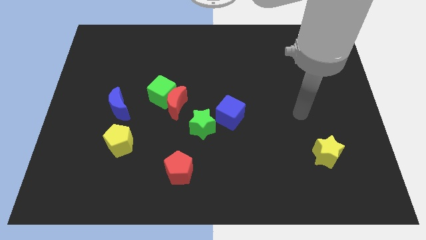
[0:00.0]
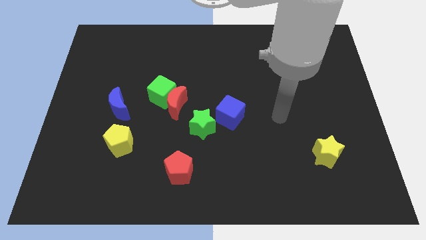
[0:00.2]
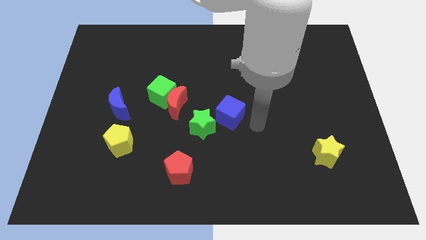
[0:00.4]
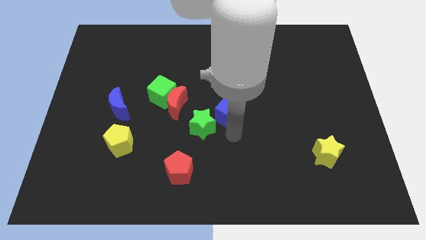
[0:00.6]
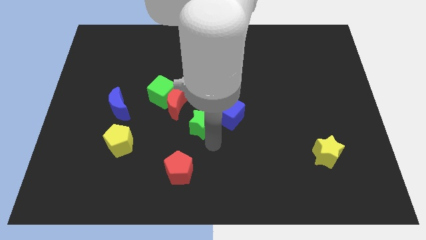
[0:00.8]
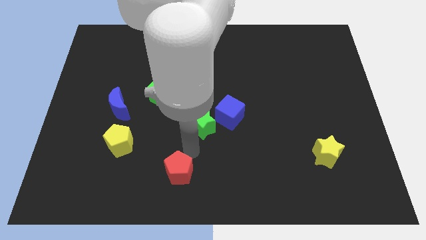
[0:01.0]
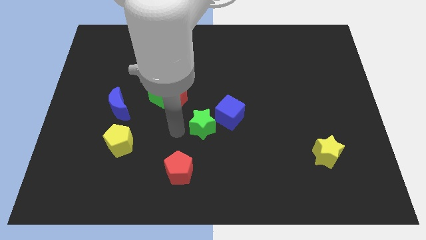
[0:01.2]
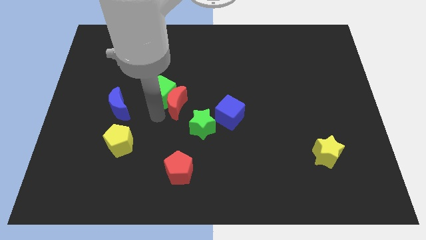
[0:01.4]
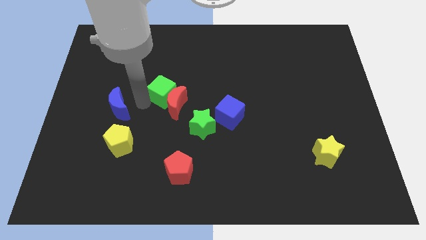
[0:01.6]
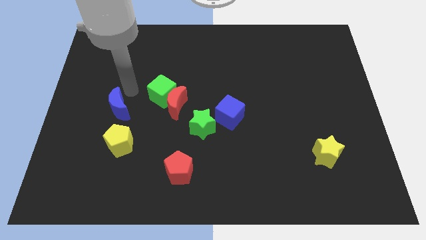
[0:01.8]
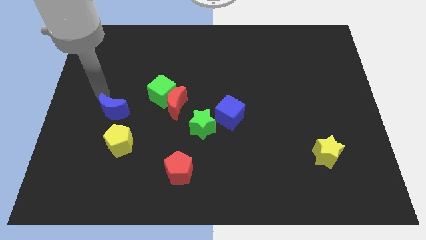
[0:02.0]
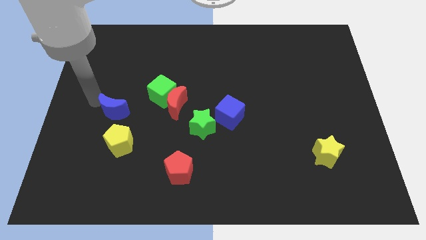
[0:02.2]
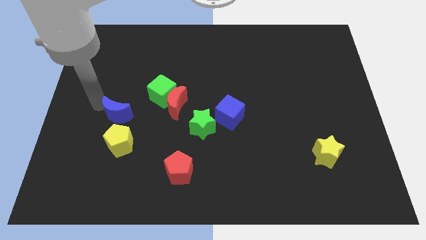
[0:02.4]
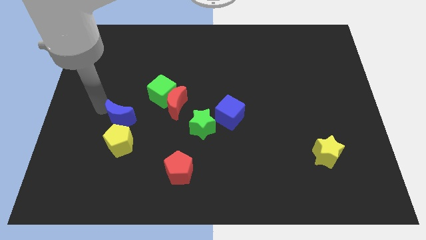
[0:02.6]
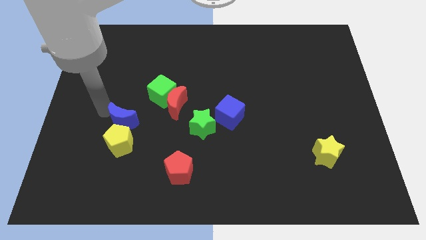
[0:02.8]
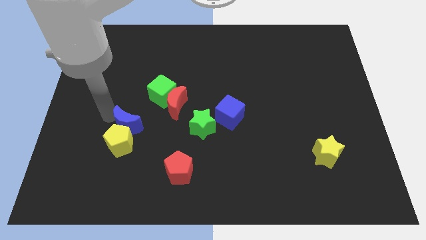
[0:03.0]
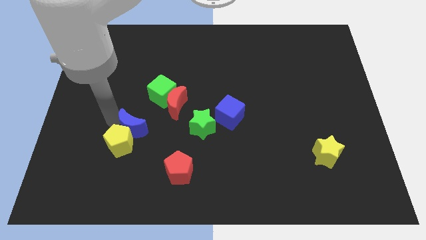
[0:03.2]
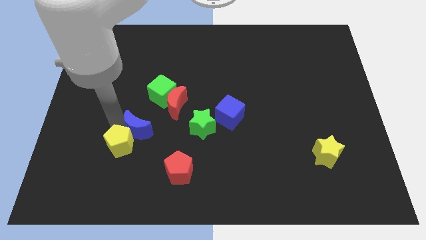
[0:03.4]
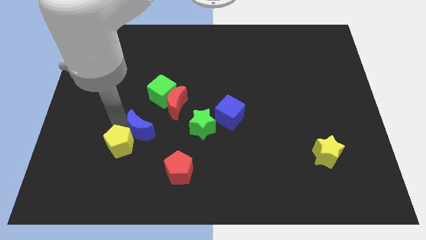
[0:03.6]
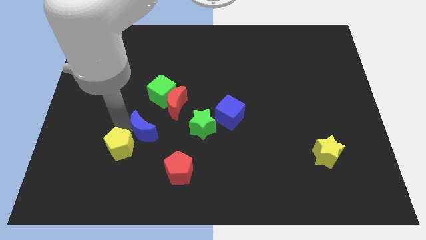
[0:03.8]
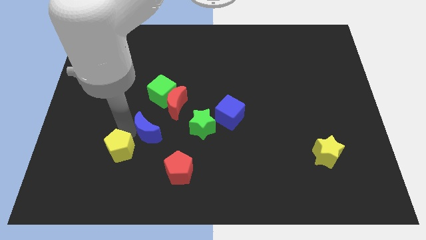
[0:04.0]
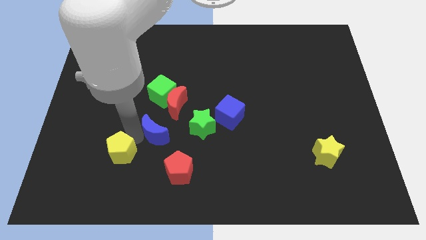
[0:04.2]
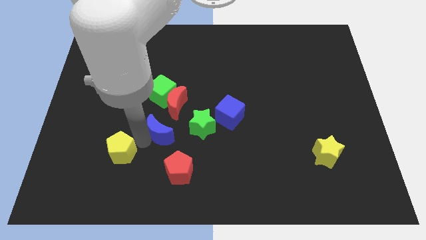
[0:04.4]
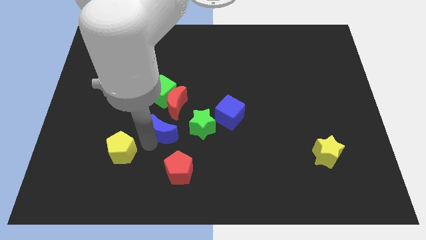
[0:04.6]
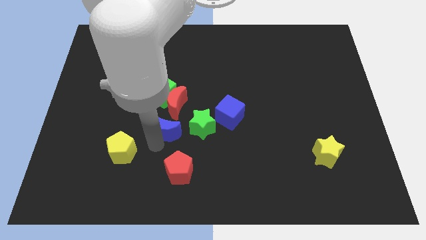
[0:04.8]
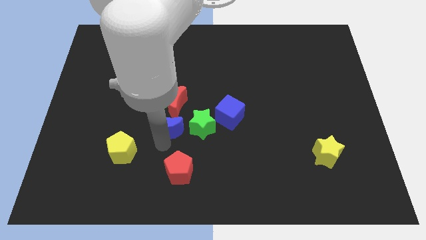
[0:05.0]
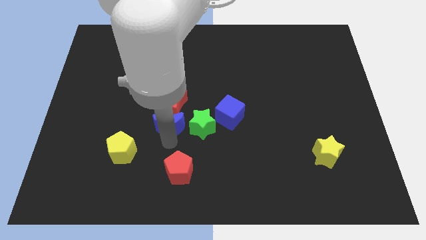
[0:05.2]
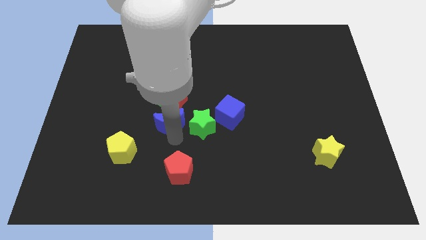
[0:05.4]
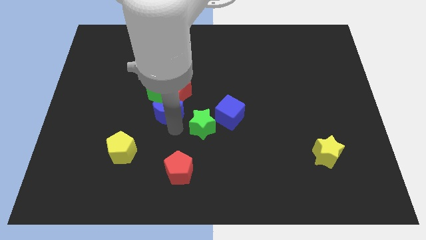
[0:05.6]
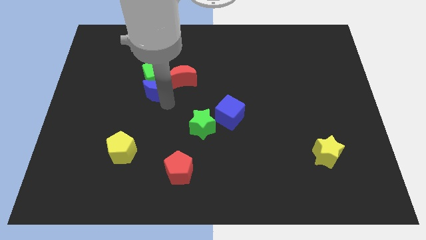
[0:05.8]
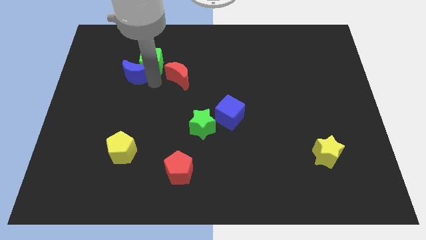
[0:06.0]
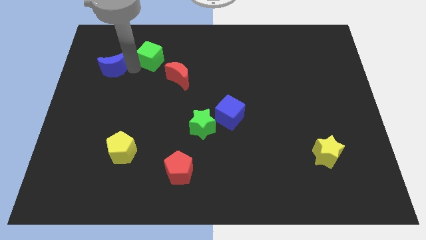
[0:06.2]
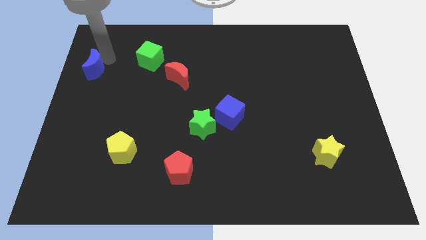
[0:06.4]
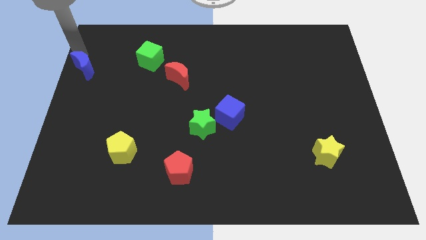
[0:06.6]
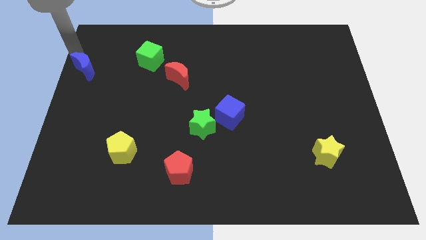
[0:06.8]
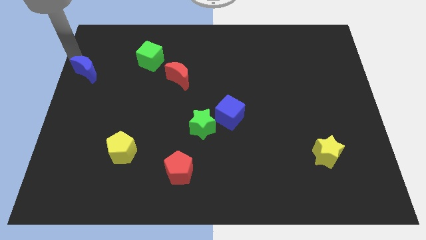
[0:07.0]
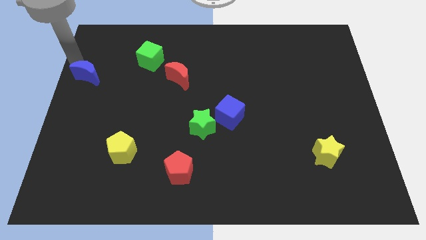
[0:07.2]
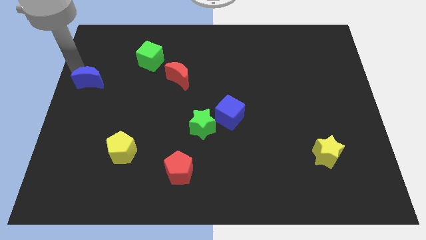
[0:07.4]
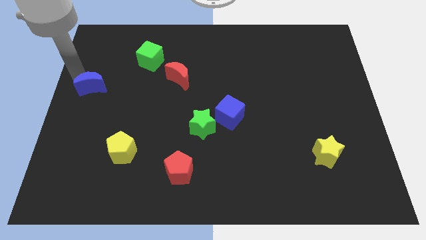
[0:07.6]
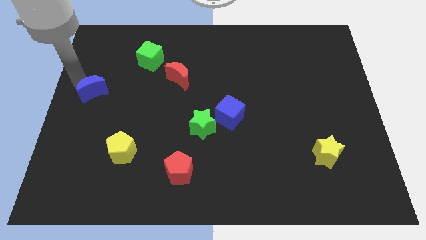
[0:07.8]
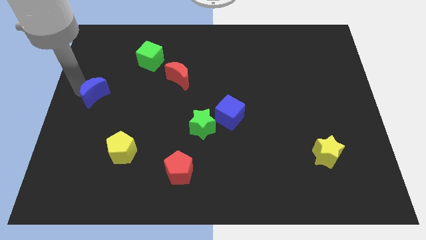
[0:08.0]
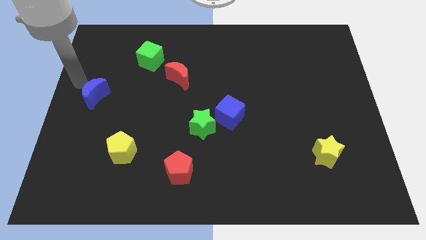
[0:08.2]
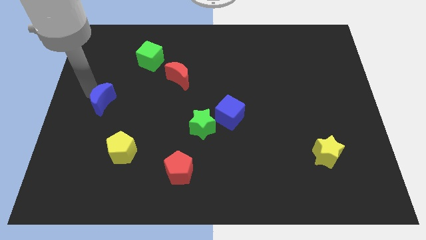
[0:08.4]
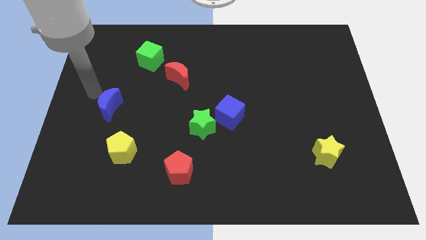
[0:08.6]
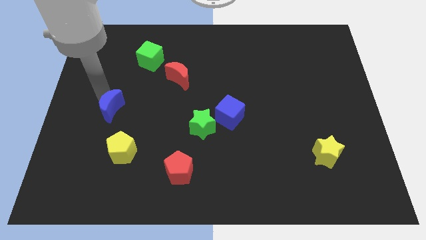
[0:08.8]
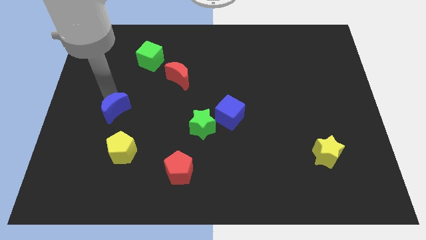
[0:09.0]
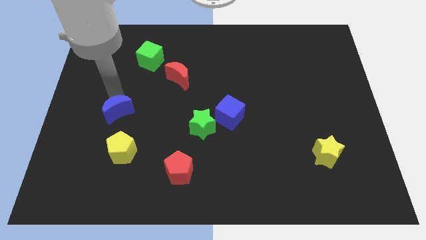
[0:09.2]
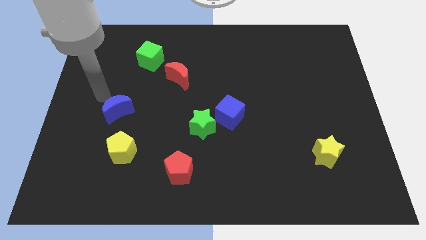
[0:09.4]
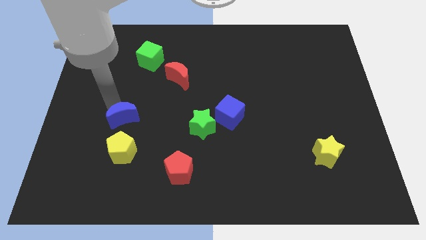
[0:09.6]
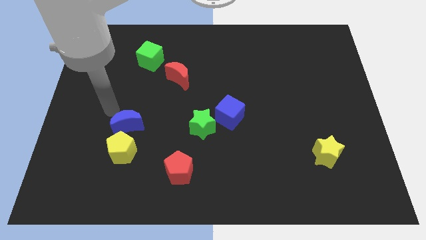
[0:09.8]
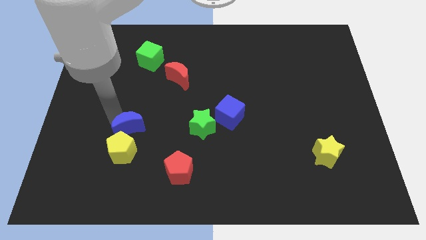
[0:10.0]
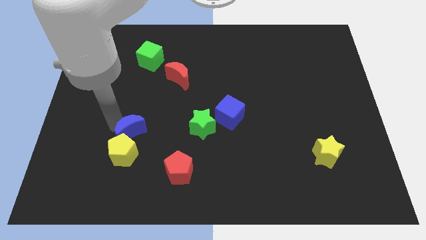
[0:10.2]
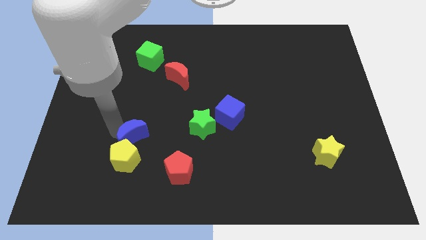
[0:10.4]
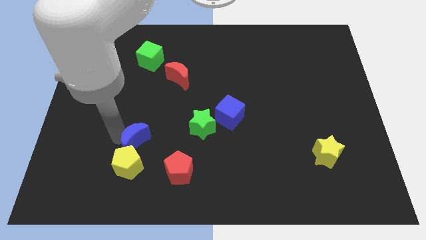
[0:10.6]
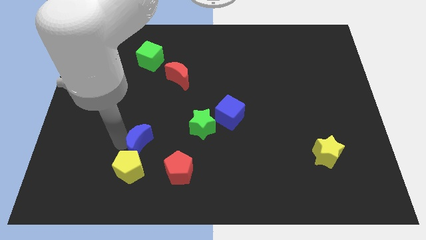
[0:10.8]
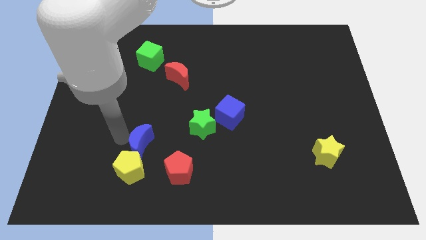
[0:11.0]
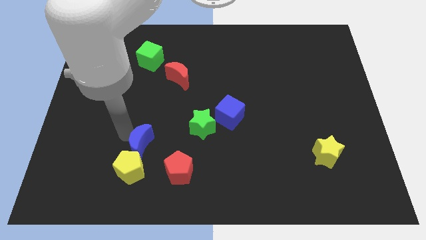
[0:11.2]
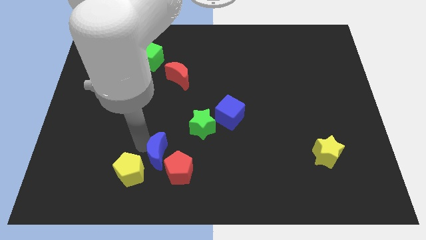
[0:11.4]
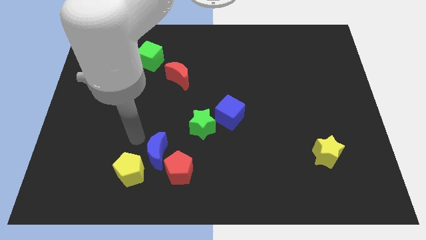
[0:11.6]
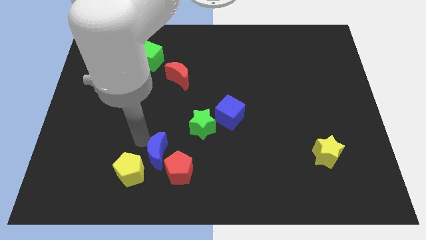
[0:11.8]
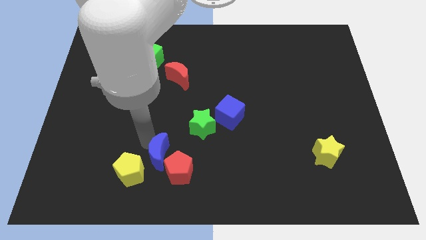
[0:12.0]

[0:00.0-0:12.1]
put the blue moon close to the red pentagon

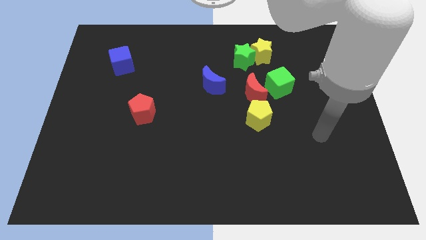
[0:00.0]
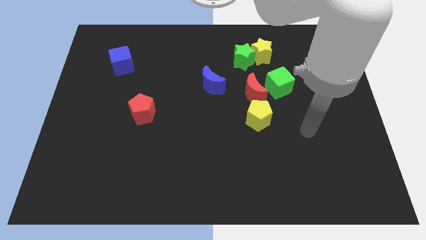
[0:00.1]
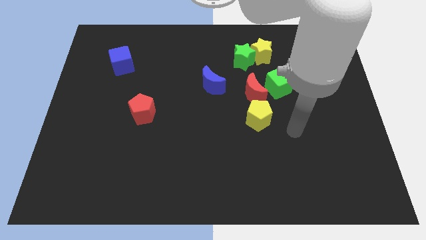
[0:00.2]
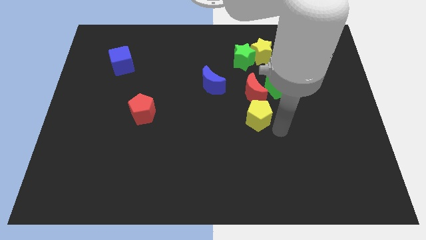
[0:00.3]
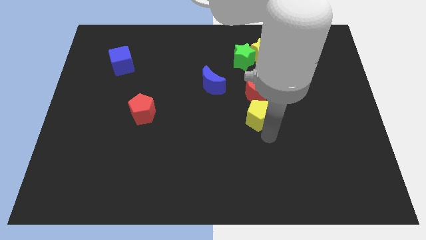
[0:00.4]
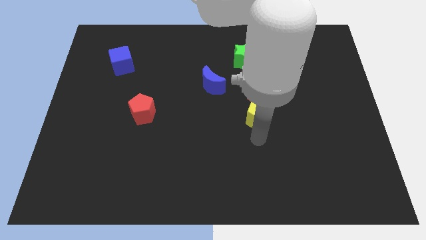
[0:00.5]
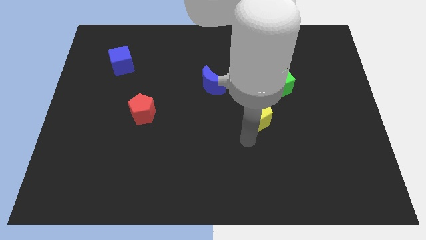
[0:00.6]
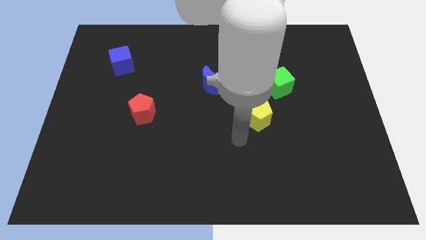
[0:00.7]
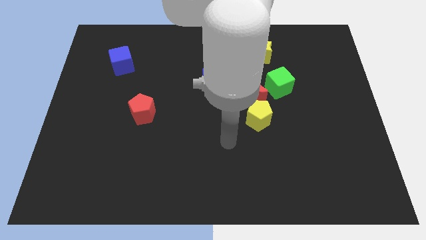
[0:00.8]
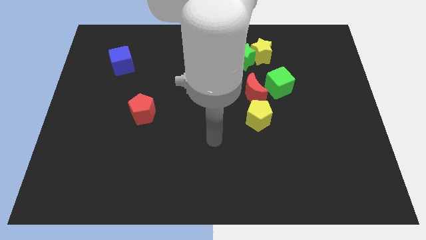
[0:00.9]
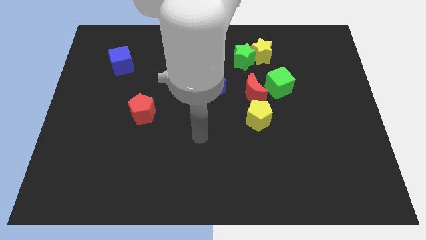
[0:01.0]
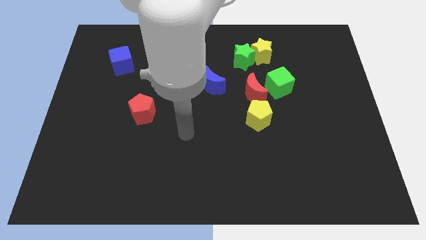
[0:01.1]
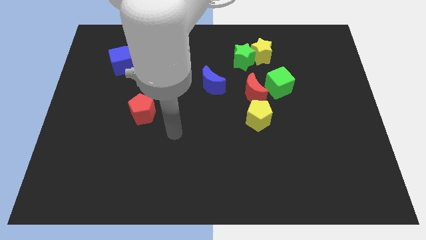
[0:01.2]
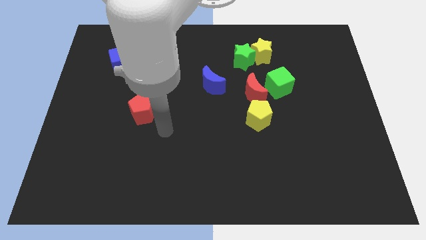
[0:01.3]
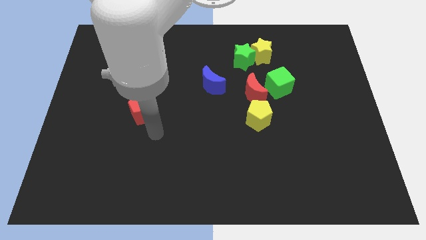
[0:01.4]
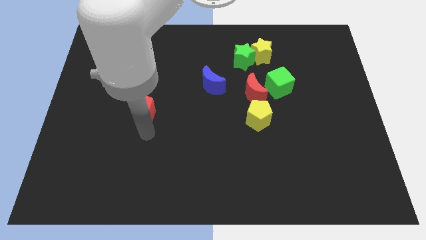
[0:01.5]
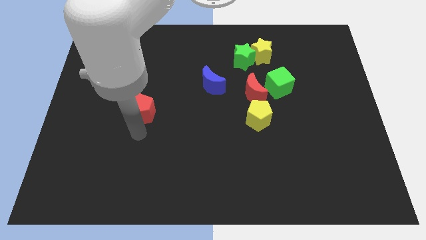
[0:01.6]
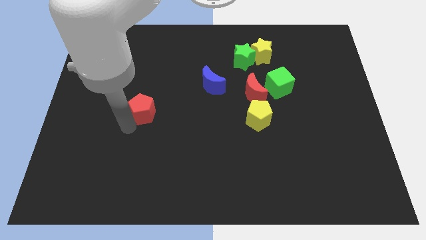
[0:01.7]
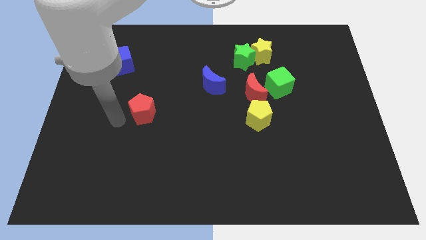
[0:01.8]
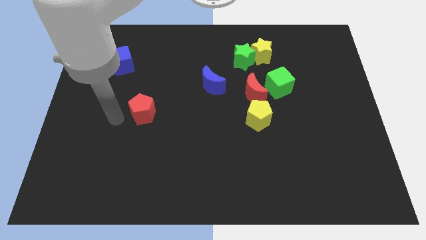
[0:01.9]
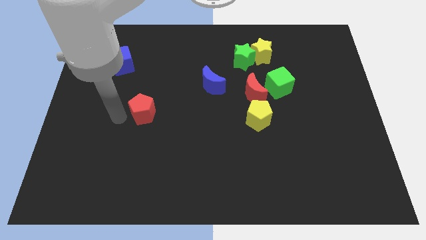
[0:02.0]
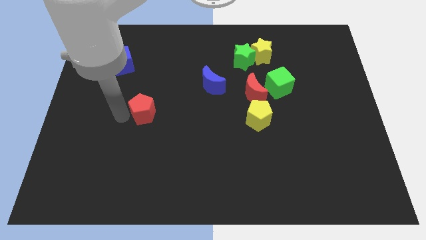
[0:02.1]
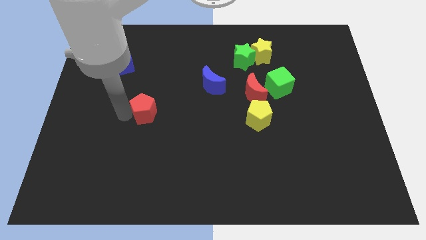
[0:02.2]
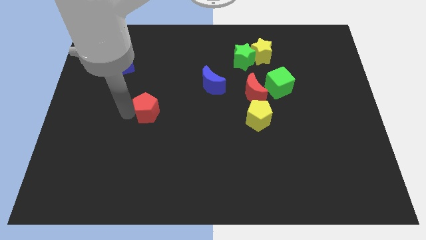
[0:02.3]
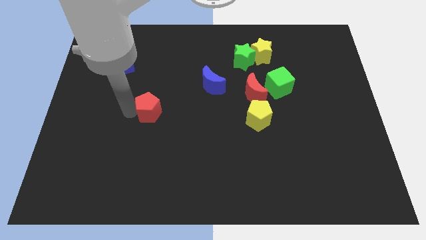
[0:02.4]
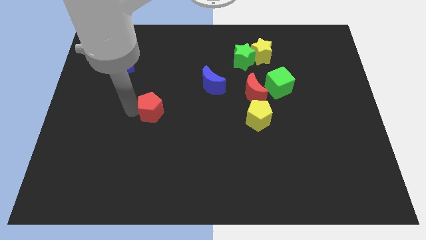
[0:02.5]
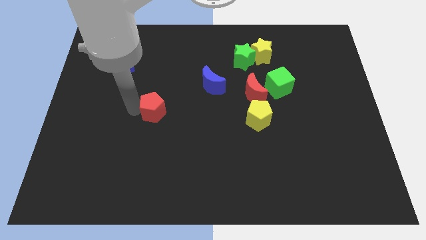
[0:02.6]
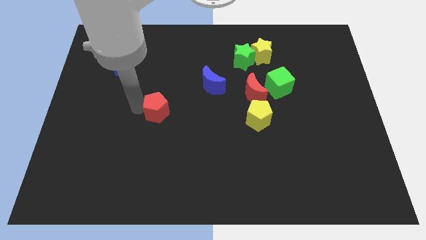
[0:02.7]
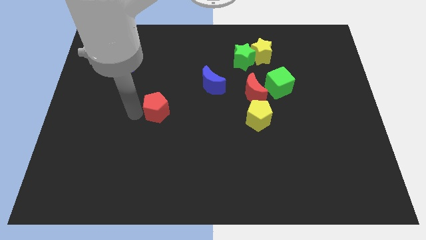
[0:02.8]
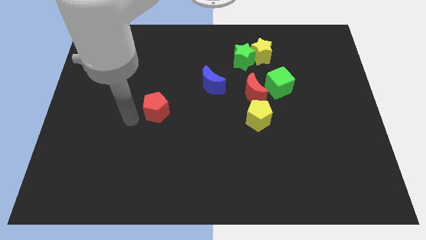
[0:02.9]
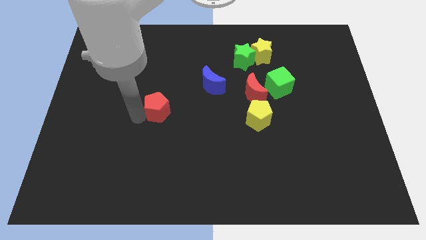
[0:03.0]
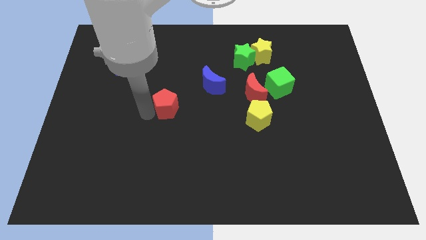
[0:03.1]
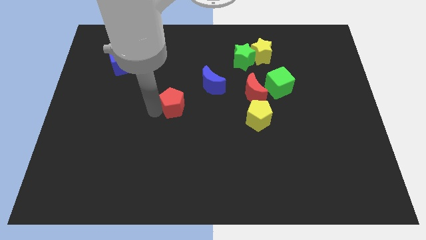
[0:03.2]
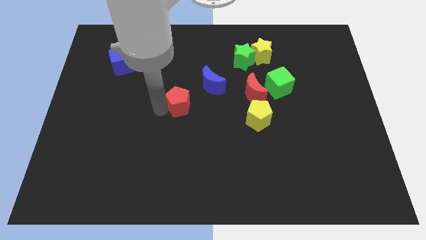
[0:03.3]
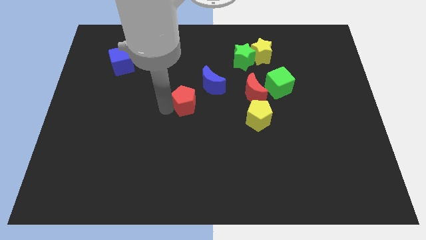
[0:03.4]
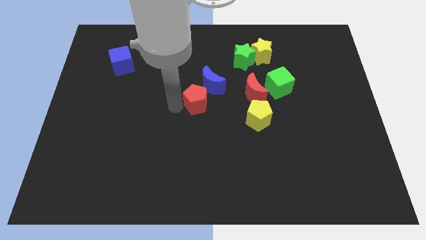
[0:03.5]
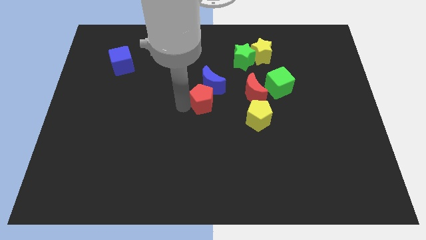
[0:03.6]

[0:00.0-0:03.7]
put the red pentagon towards the blue moon
